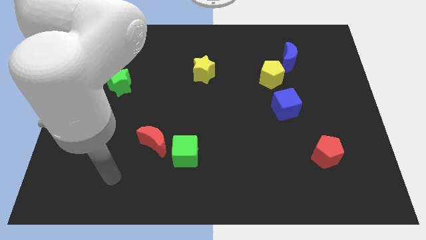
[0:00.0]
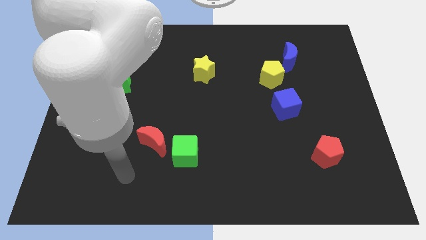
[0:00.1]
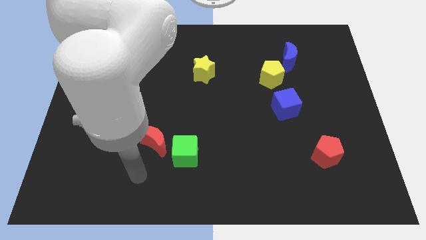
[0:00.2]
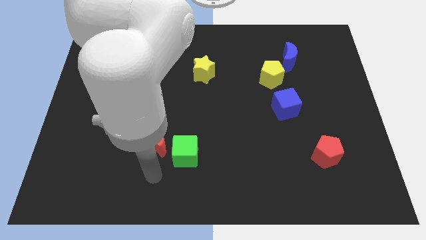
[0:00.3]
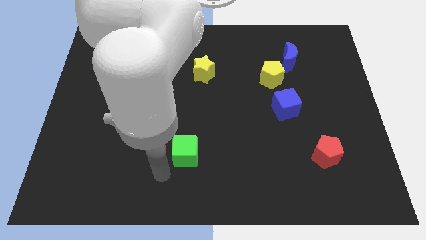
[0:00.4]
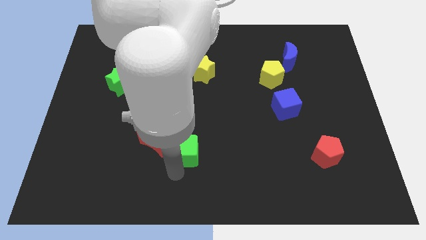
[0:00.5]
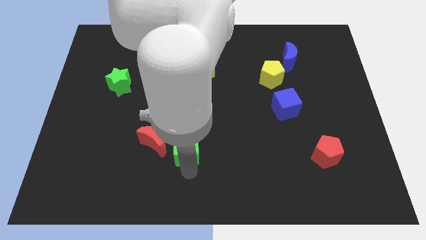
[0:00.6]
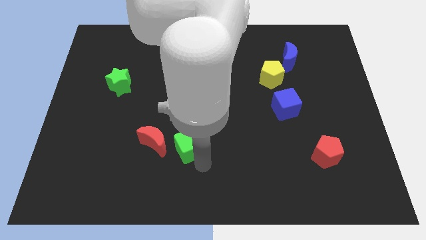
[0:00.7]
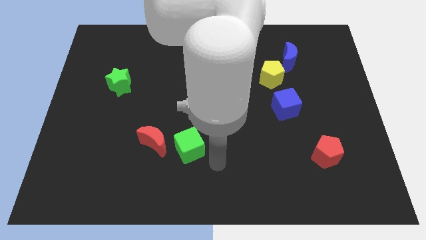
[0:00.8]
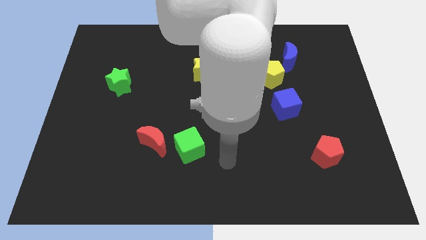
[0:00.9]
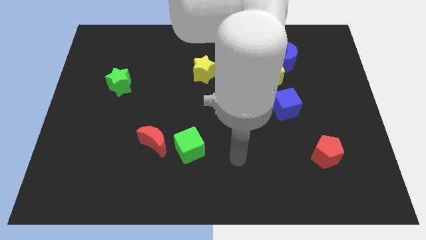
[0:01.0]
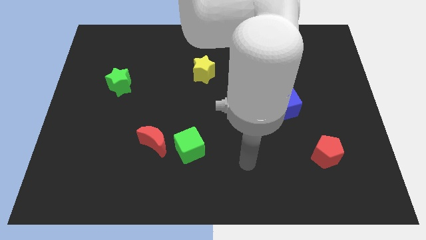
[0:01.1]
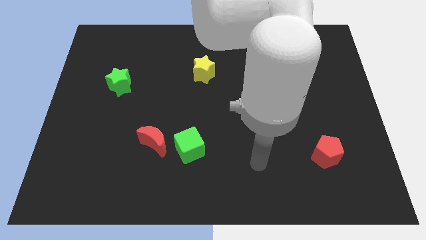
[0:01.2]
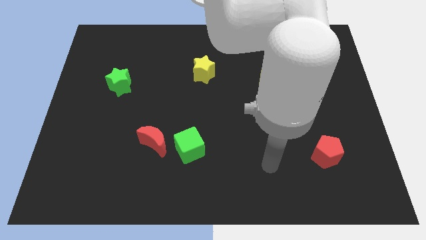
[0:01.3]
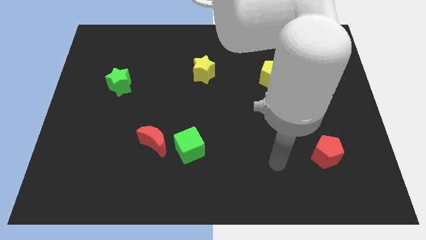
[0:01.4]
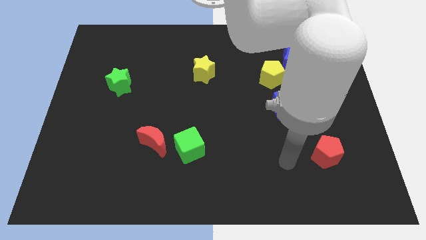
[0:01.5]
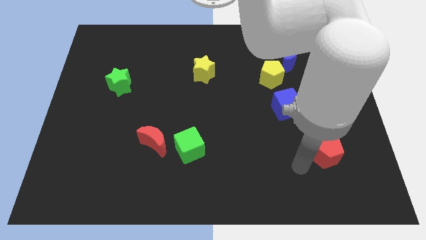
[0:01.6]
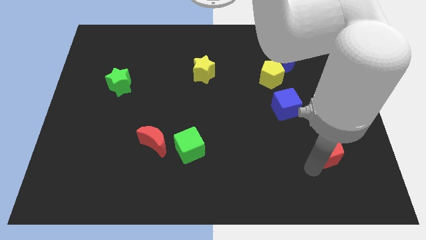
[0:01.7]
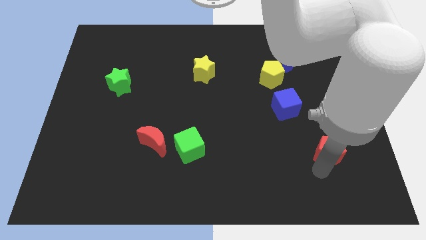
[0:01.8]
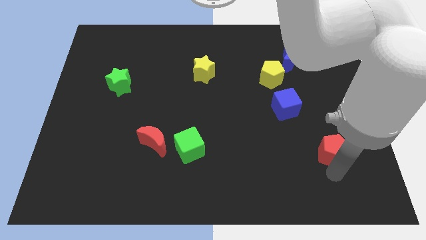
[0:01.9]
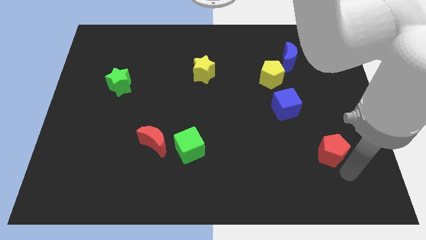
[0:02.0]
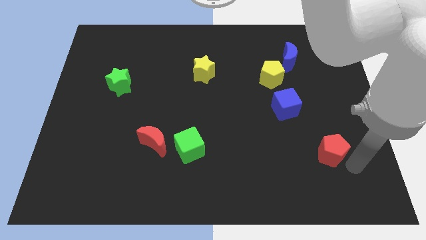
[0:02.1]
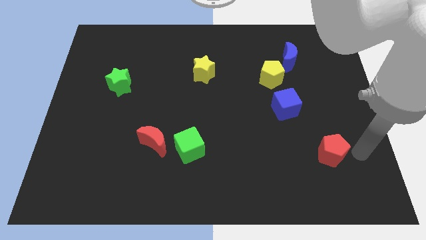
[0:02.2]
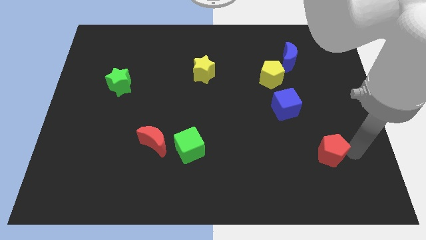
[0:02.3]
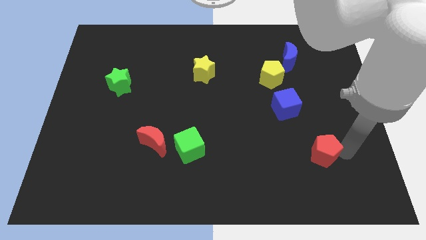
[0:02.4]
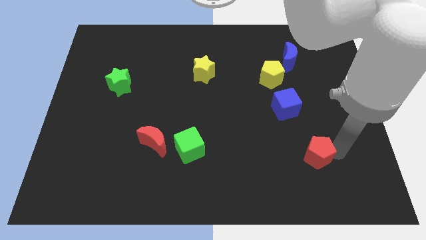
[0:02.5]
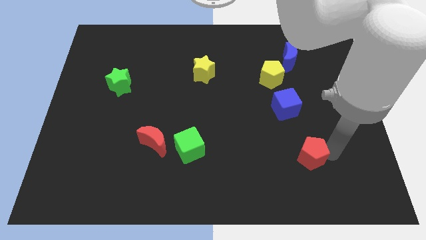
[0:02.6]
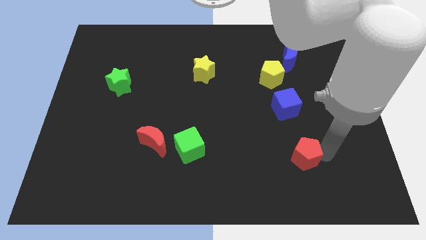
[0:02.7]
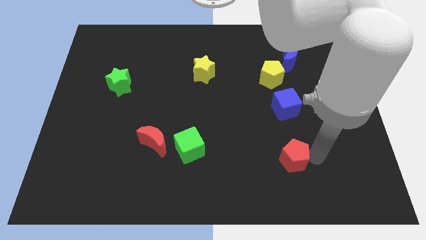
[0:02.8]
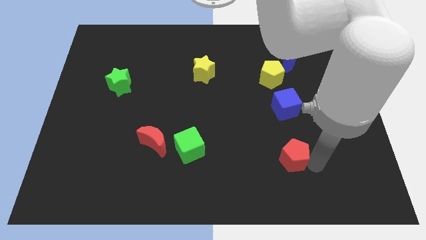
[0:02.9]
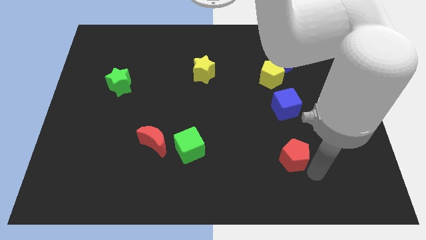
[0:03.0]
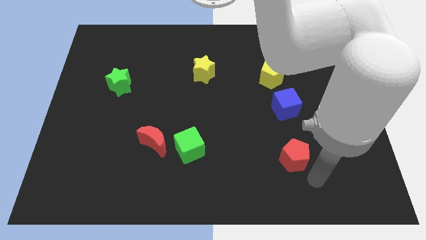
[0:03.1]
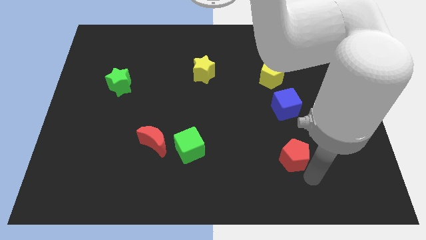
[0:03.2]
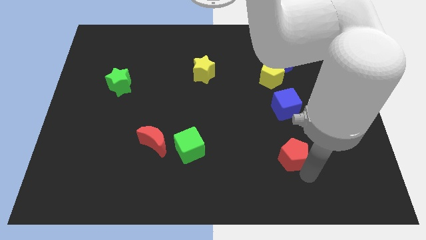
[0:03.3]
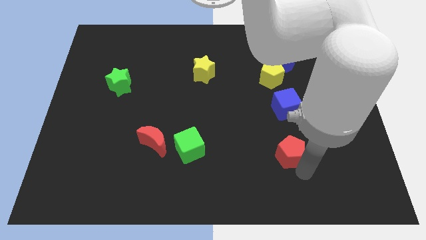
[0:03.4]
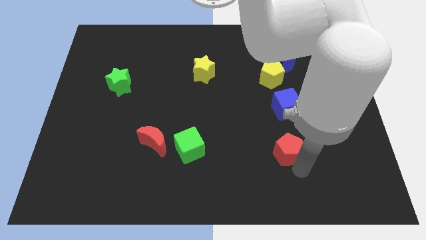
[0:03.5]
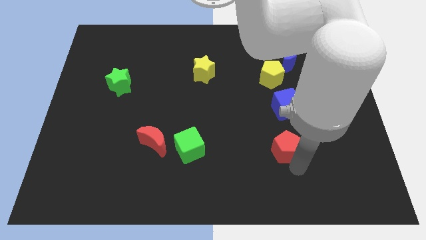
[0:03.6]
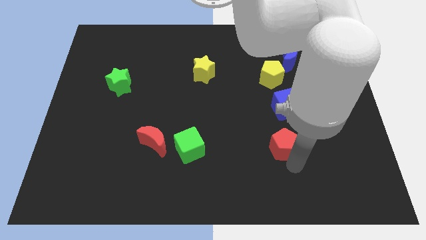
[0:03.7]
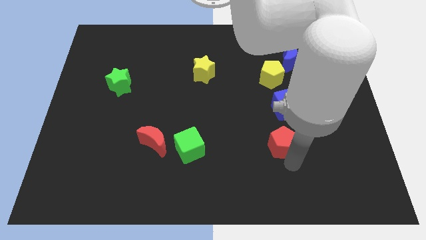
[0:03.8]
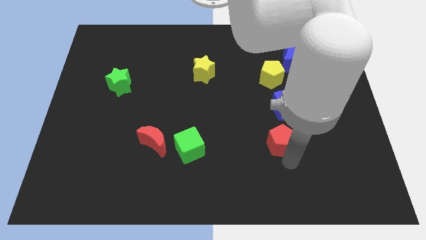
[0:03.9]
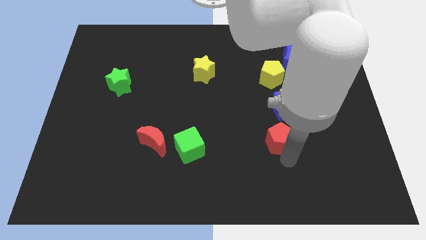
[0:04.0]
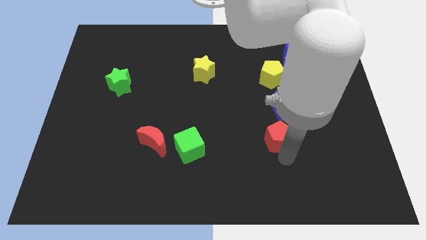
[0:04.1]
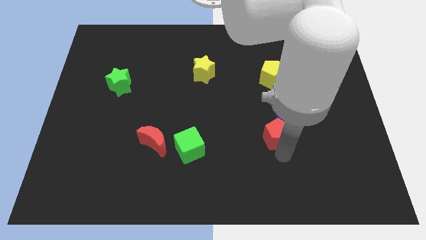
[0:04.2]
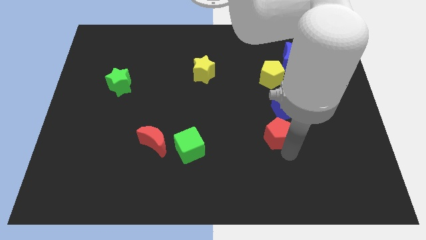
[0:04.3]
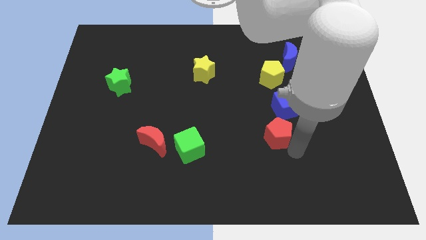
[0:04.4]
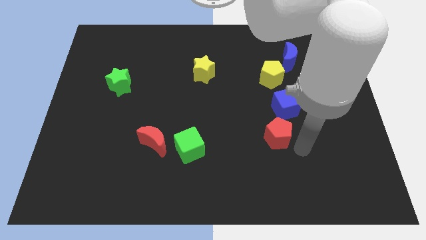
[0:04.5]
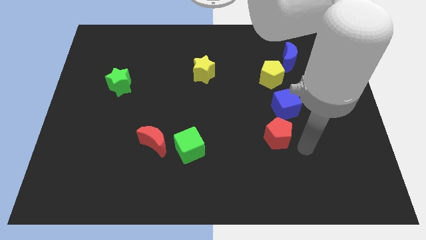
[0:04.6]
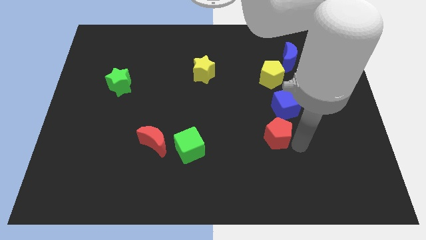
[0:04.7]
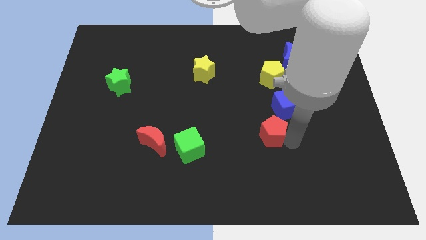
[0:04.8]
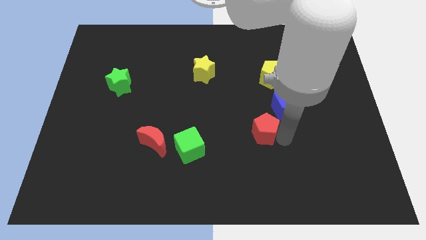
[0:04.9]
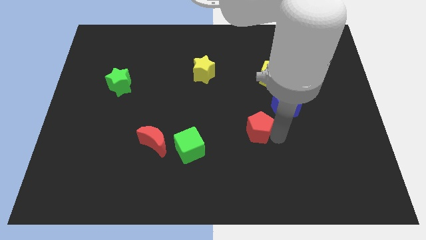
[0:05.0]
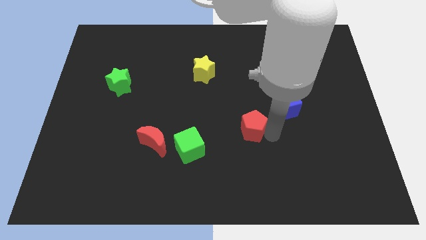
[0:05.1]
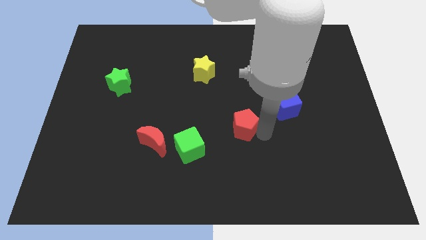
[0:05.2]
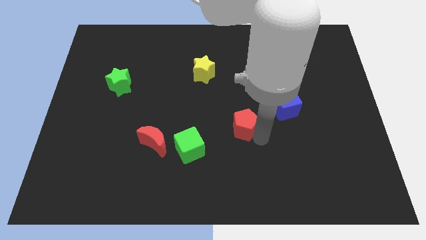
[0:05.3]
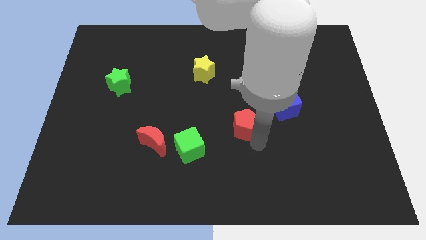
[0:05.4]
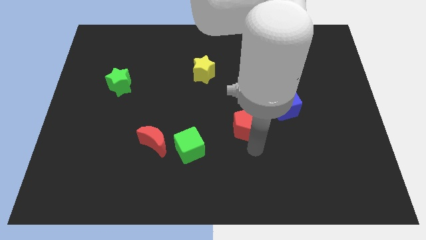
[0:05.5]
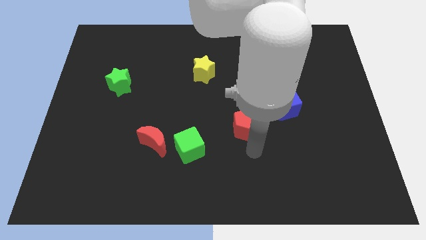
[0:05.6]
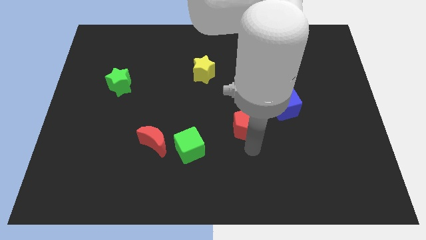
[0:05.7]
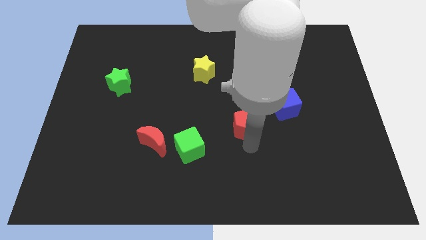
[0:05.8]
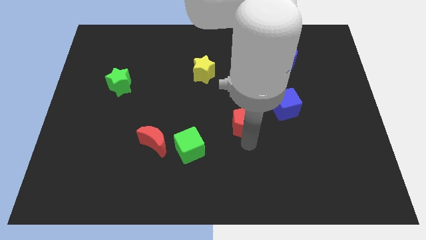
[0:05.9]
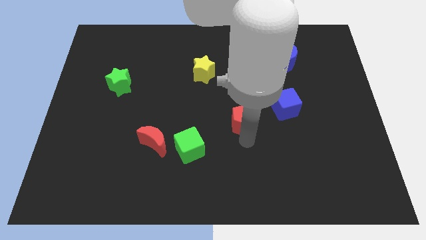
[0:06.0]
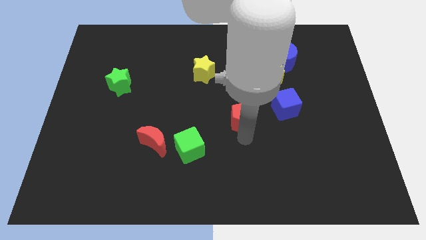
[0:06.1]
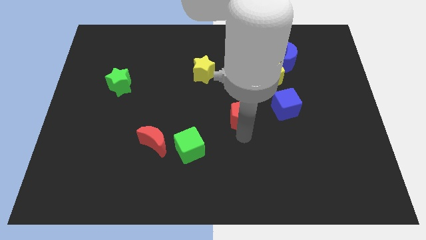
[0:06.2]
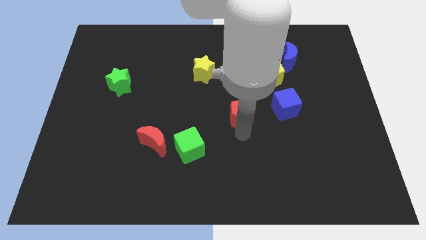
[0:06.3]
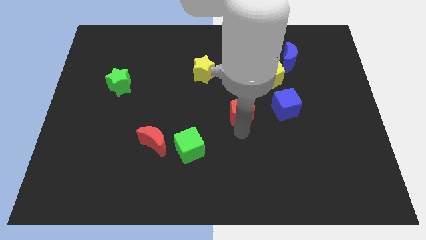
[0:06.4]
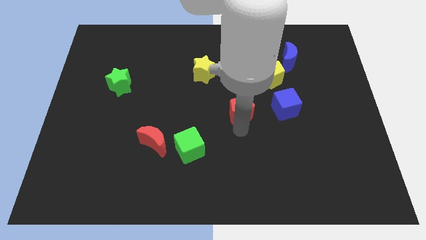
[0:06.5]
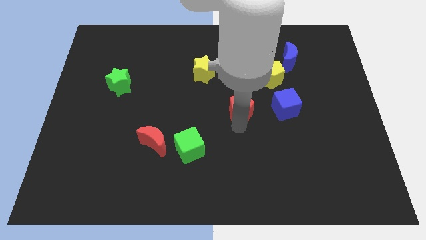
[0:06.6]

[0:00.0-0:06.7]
push the red pentagon diagonally upwards and to the left

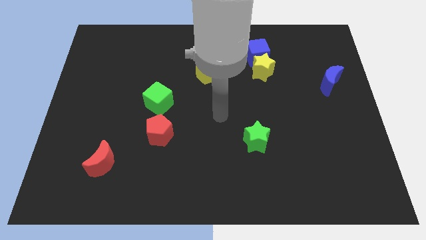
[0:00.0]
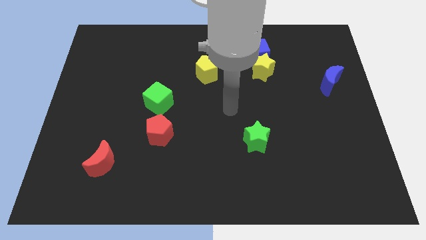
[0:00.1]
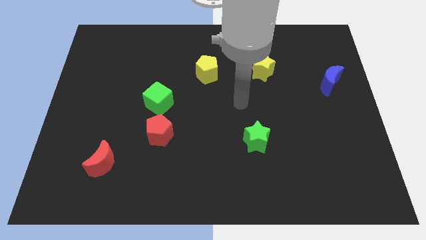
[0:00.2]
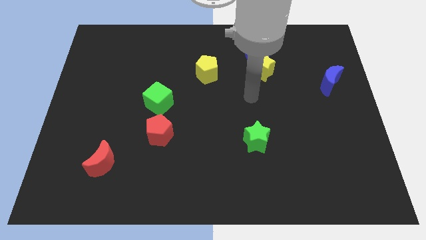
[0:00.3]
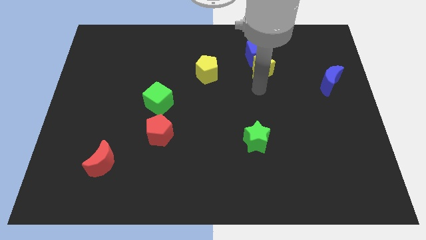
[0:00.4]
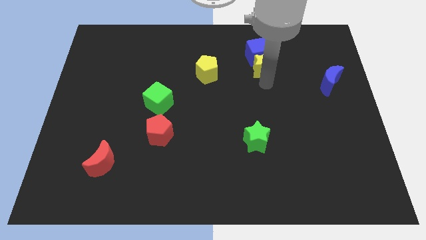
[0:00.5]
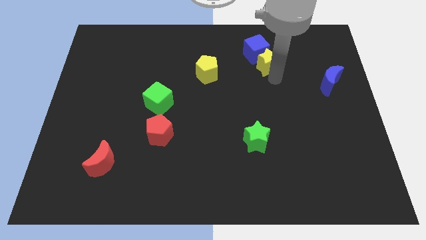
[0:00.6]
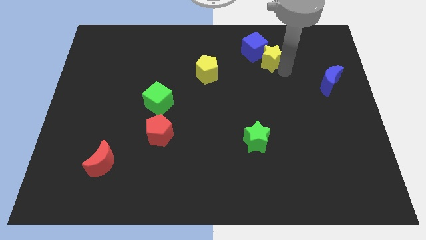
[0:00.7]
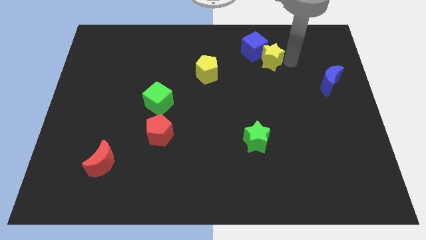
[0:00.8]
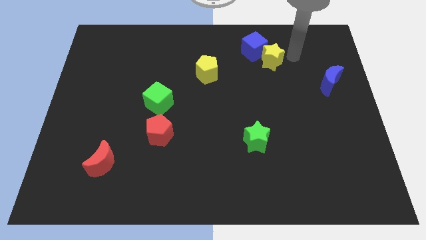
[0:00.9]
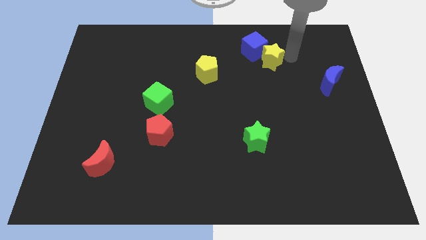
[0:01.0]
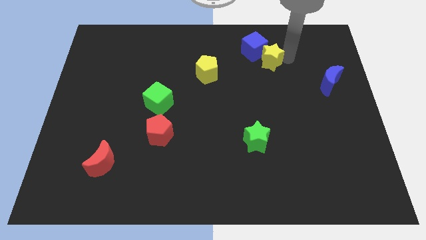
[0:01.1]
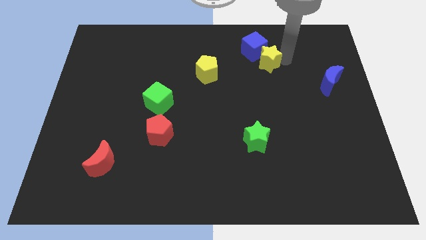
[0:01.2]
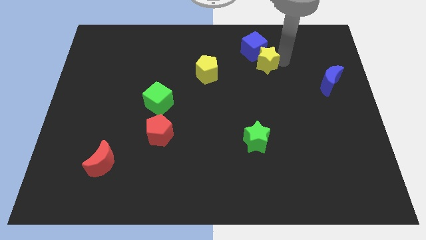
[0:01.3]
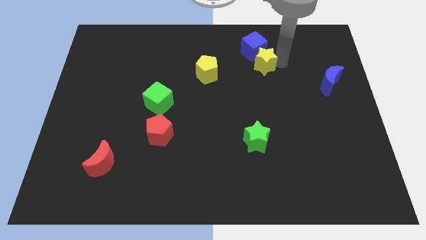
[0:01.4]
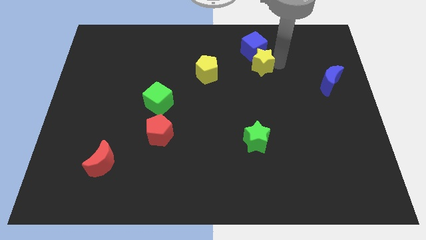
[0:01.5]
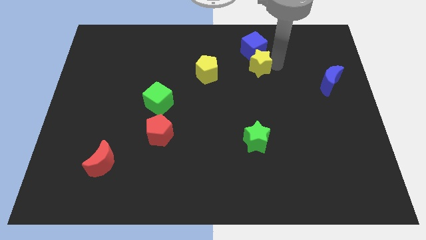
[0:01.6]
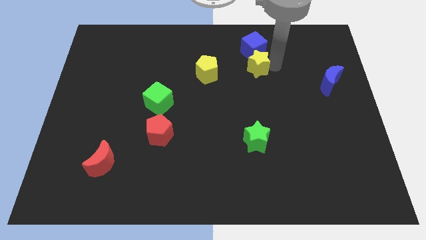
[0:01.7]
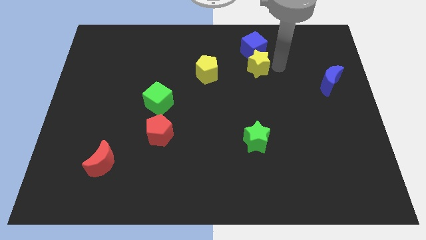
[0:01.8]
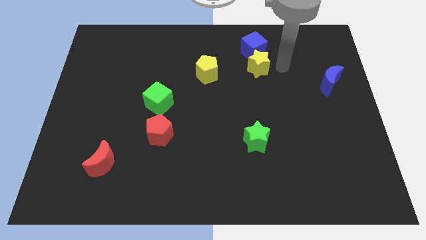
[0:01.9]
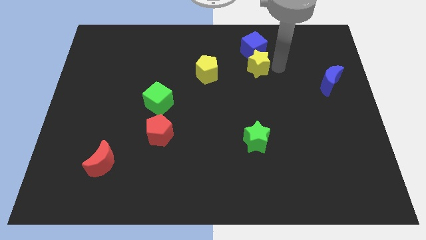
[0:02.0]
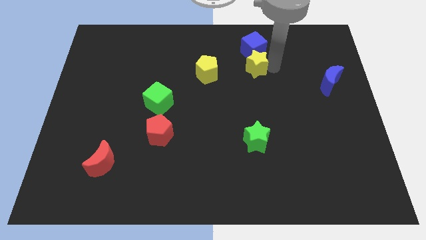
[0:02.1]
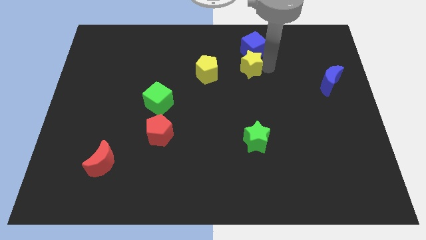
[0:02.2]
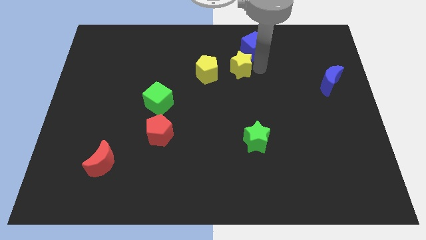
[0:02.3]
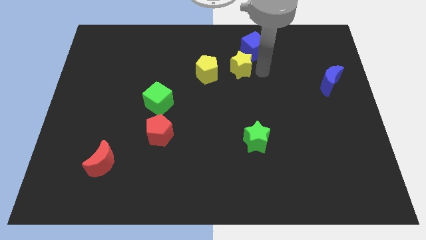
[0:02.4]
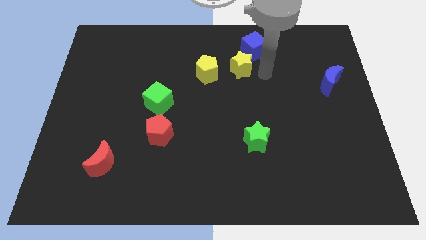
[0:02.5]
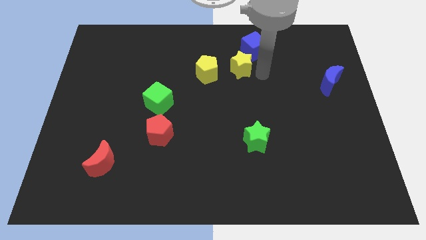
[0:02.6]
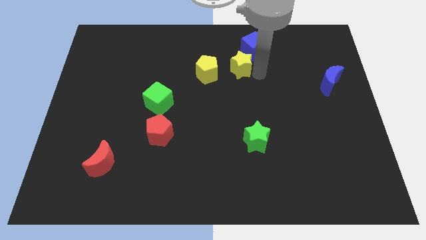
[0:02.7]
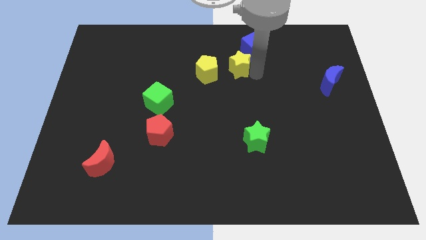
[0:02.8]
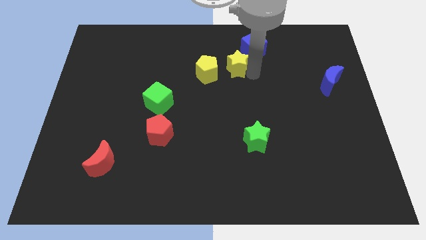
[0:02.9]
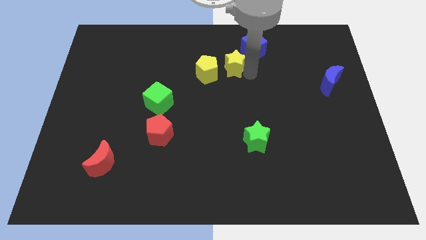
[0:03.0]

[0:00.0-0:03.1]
slightly push the yellow star left
